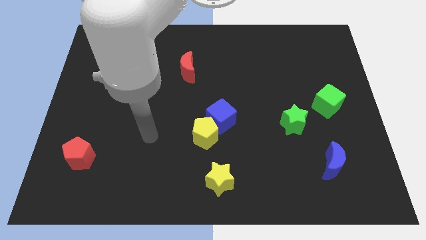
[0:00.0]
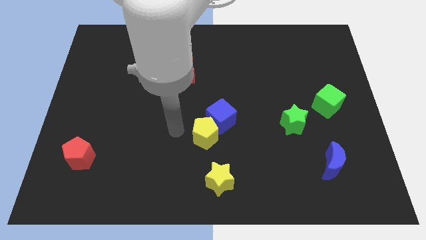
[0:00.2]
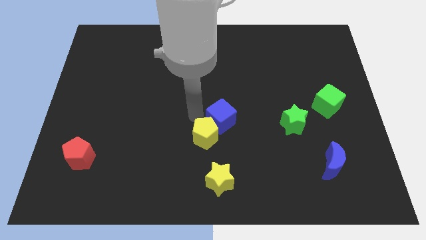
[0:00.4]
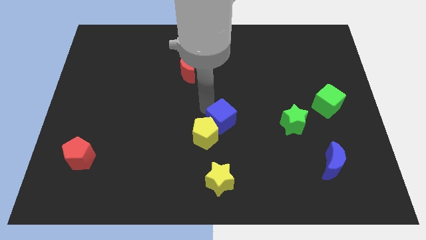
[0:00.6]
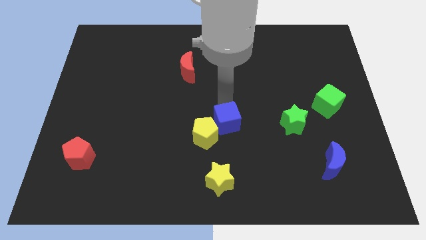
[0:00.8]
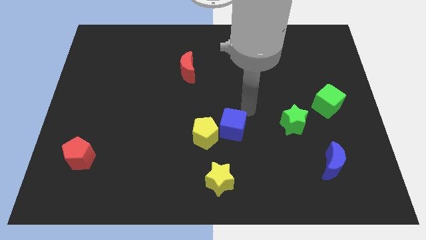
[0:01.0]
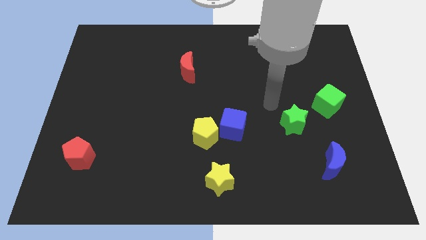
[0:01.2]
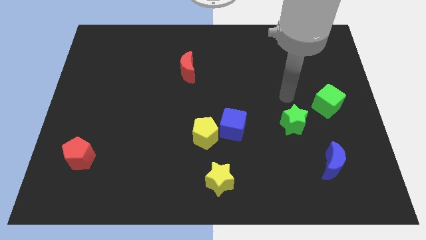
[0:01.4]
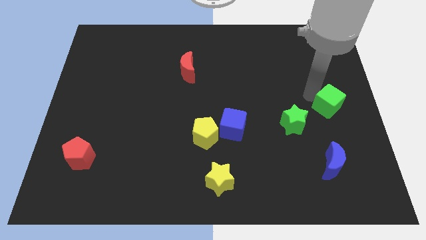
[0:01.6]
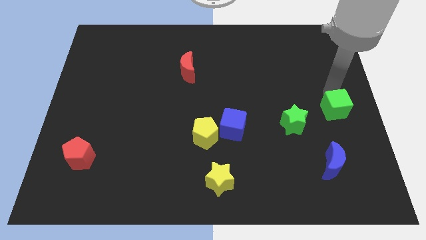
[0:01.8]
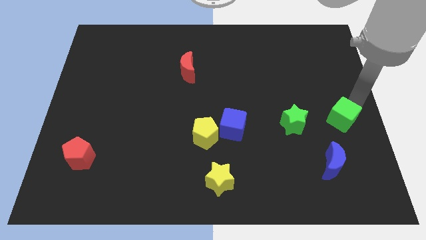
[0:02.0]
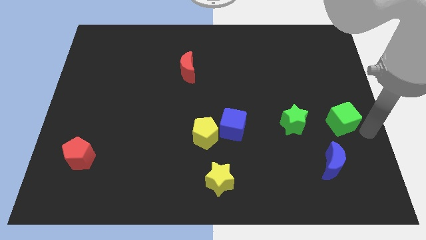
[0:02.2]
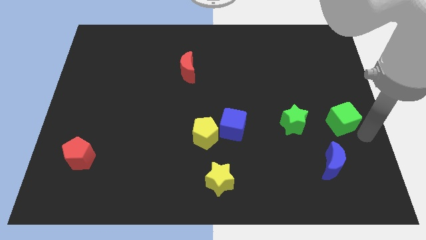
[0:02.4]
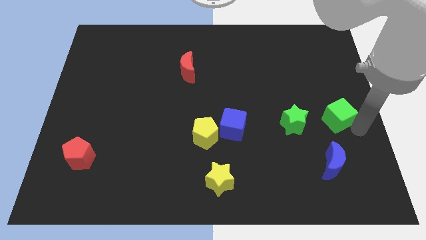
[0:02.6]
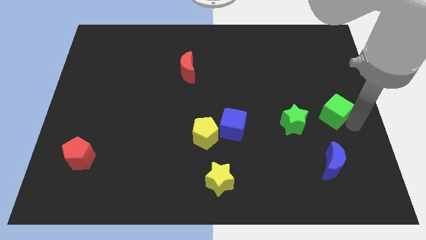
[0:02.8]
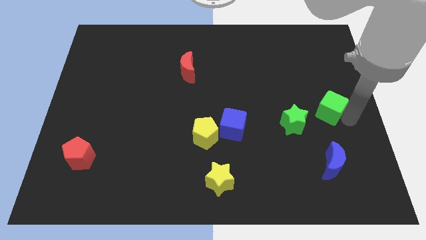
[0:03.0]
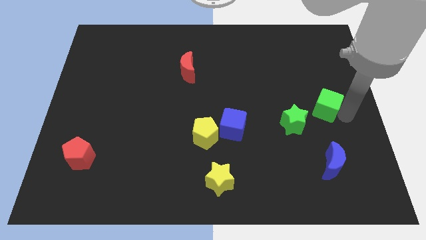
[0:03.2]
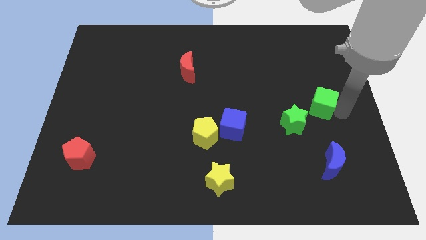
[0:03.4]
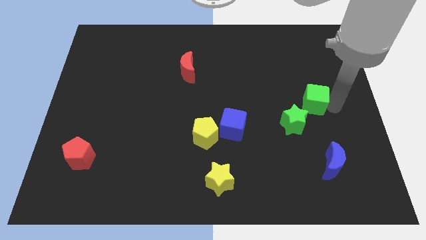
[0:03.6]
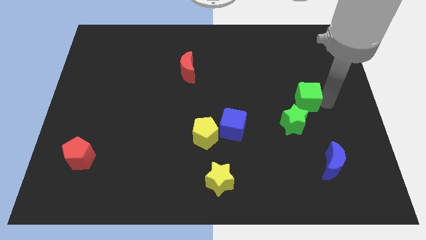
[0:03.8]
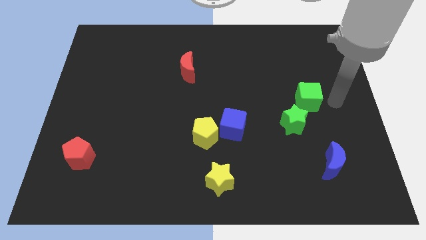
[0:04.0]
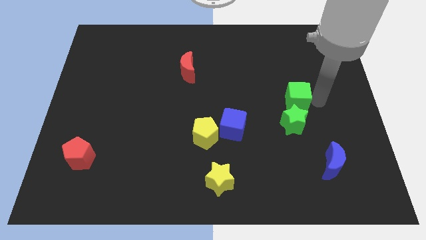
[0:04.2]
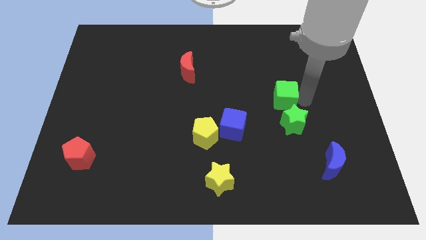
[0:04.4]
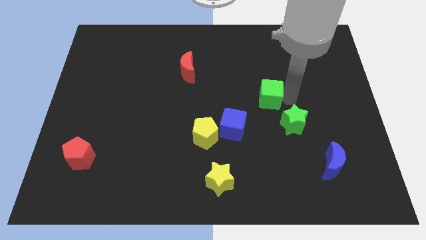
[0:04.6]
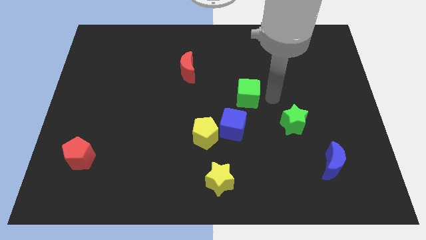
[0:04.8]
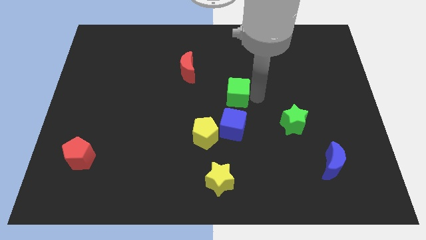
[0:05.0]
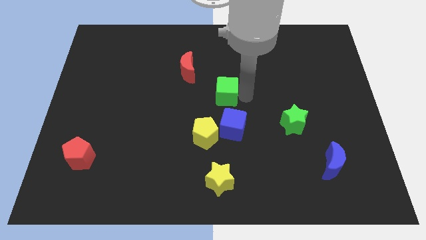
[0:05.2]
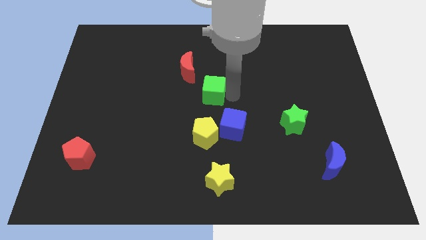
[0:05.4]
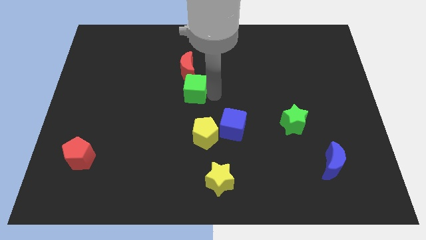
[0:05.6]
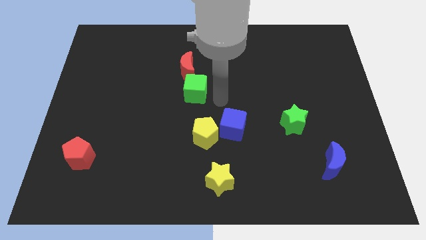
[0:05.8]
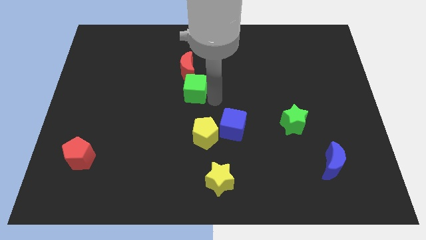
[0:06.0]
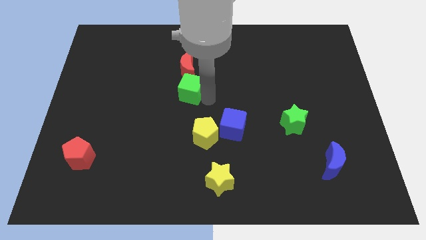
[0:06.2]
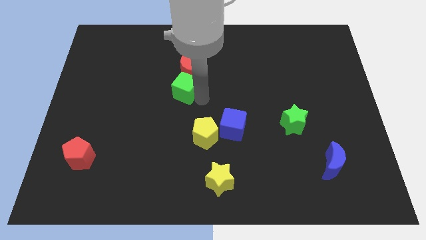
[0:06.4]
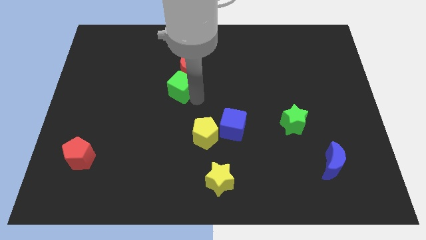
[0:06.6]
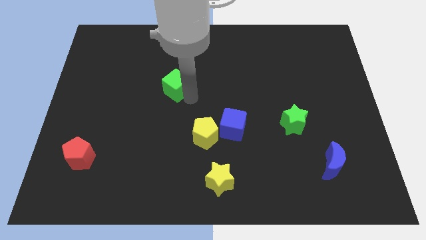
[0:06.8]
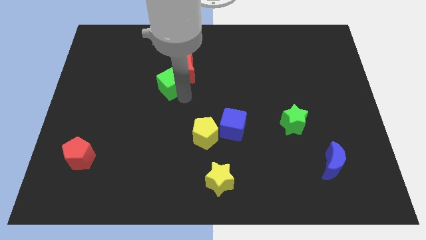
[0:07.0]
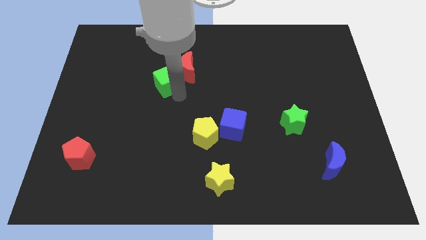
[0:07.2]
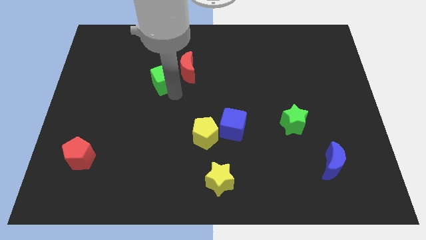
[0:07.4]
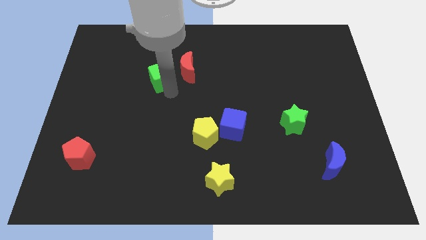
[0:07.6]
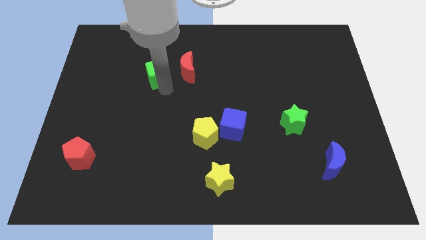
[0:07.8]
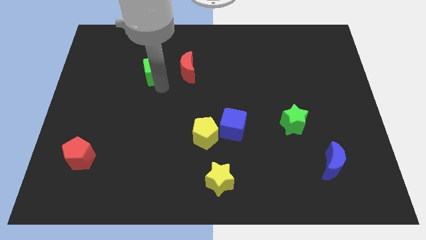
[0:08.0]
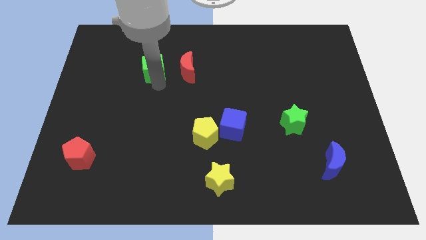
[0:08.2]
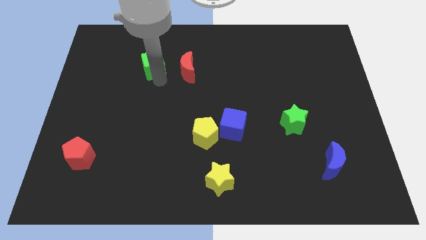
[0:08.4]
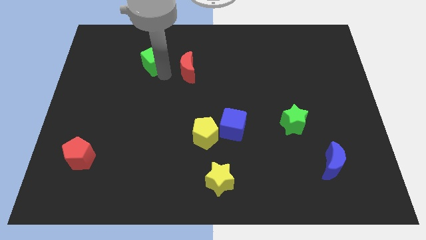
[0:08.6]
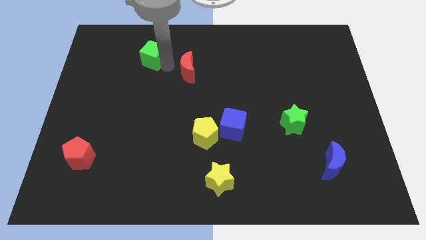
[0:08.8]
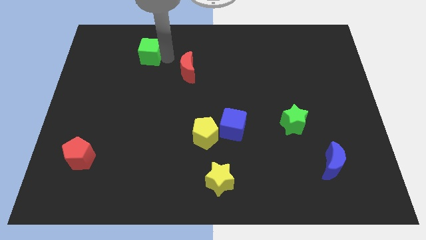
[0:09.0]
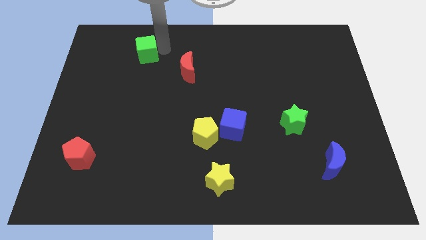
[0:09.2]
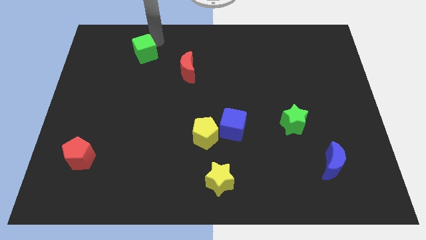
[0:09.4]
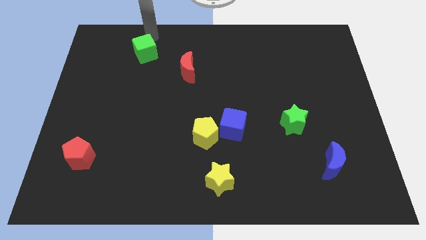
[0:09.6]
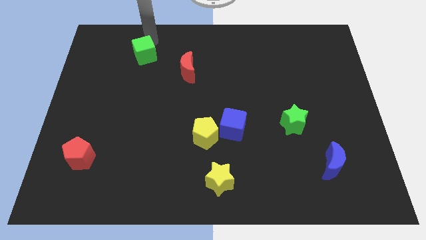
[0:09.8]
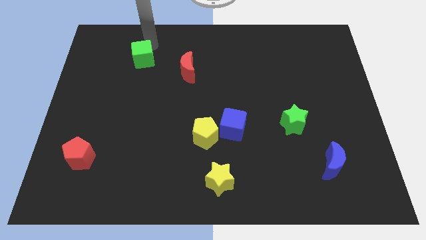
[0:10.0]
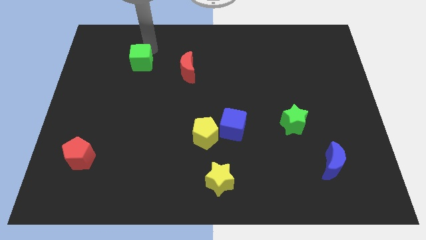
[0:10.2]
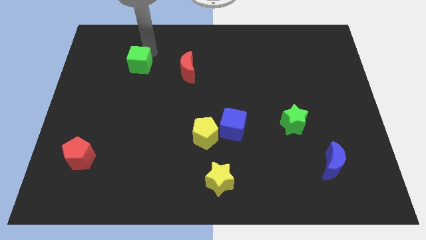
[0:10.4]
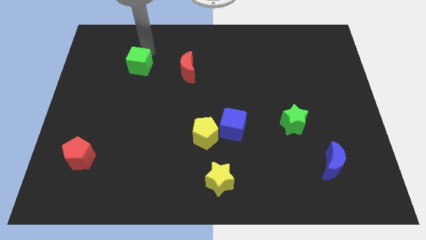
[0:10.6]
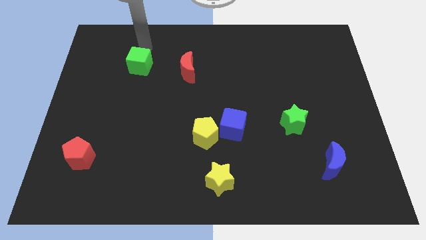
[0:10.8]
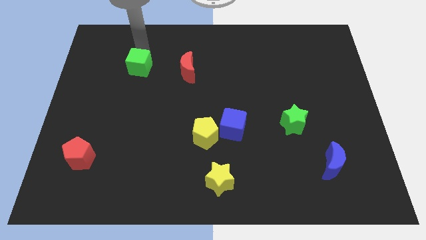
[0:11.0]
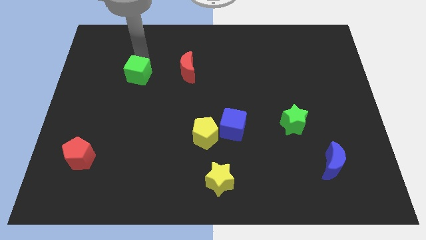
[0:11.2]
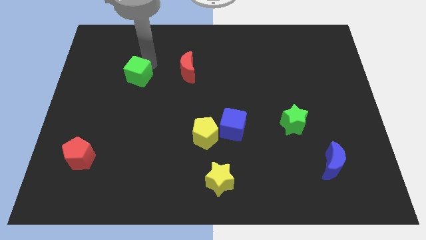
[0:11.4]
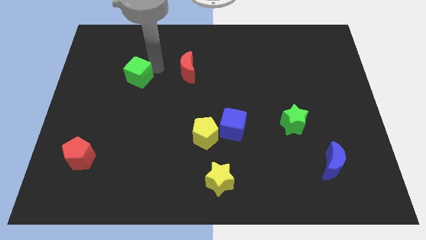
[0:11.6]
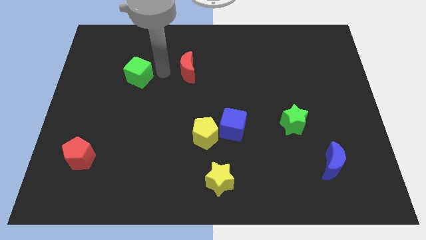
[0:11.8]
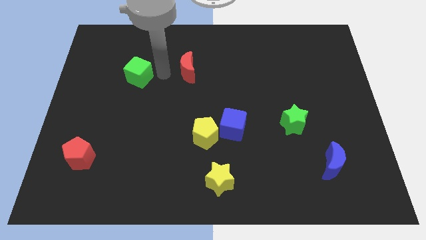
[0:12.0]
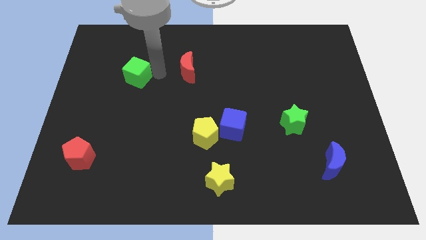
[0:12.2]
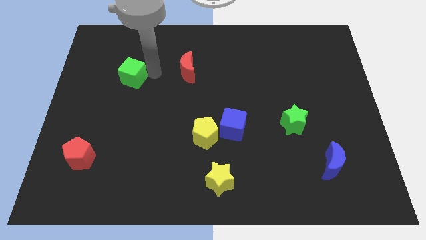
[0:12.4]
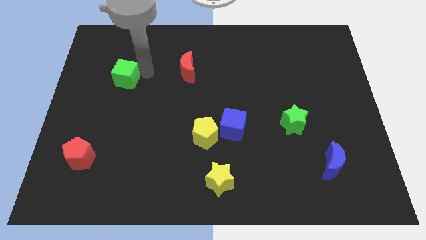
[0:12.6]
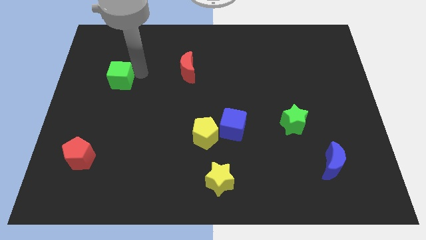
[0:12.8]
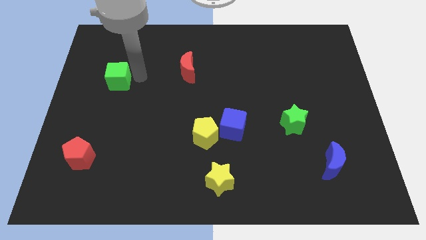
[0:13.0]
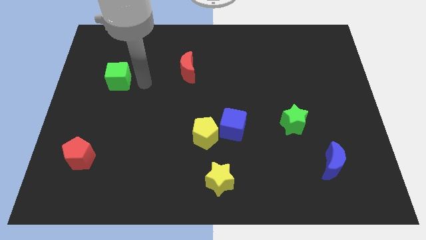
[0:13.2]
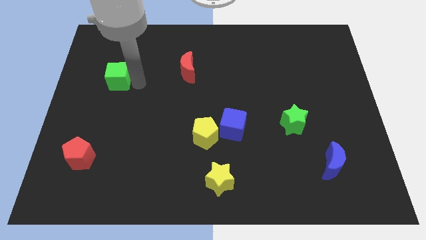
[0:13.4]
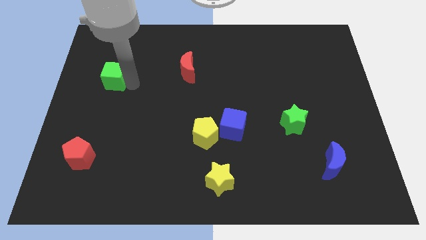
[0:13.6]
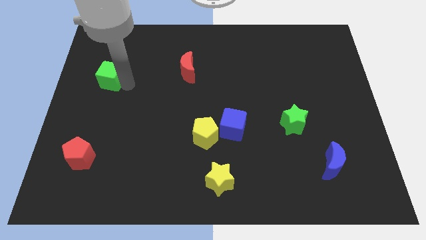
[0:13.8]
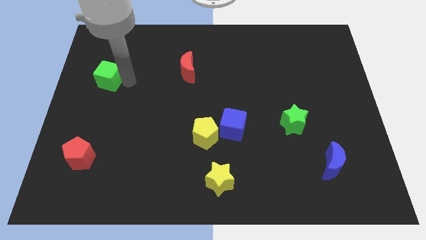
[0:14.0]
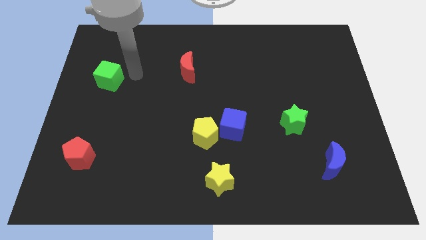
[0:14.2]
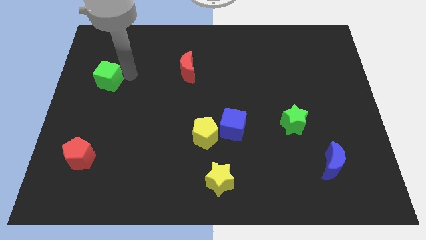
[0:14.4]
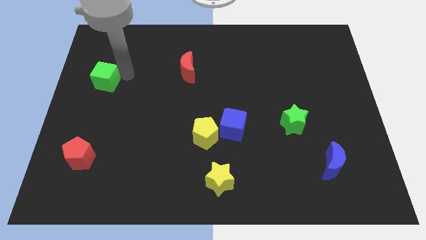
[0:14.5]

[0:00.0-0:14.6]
put the green cube to the left side
